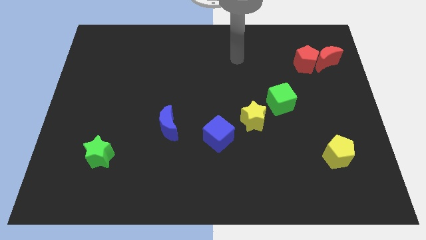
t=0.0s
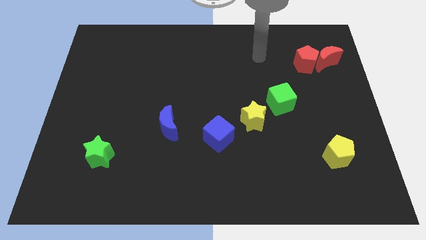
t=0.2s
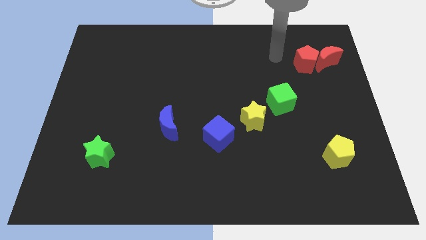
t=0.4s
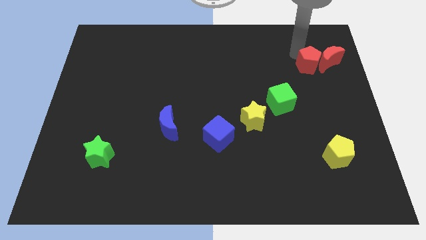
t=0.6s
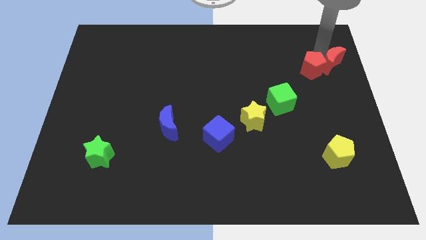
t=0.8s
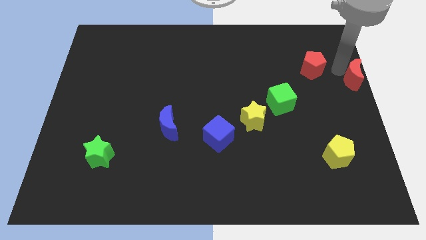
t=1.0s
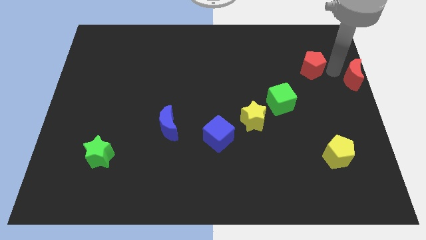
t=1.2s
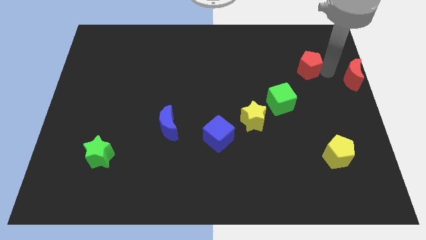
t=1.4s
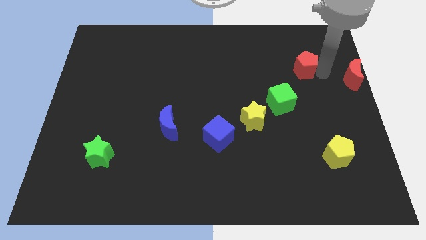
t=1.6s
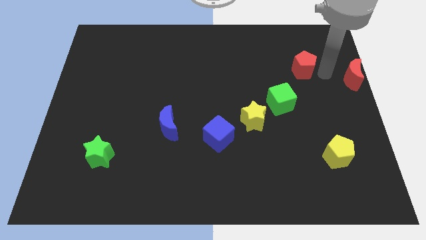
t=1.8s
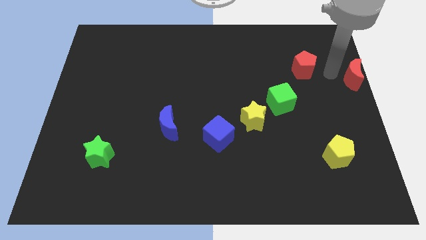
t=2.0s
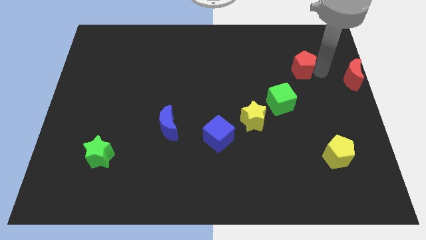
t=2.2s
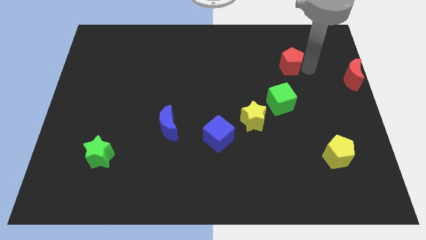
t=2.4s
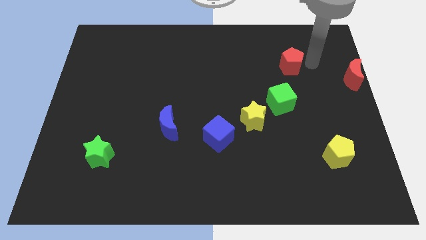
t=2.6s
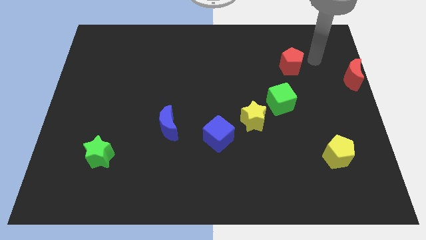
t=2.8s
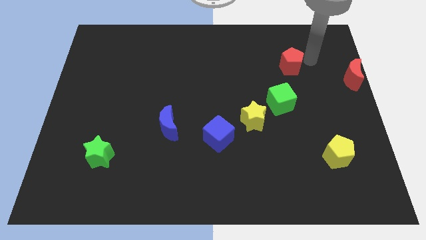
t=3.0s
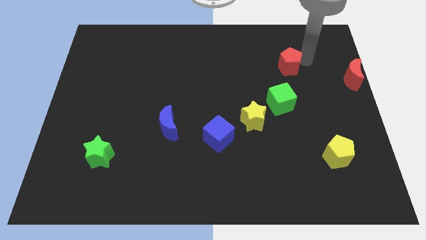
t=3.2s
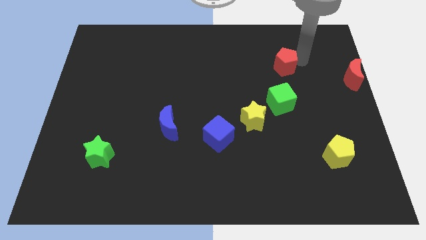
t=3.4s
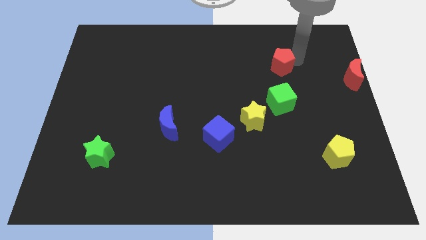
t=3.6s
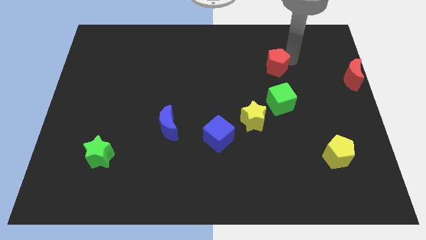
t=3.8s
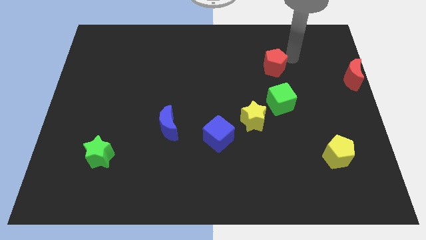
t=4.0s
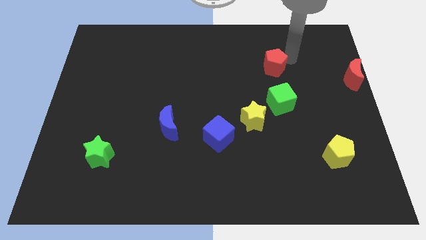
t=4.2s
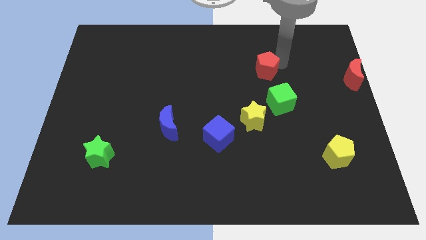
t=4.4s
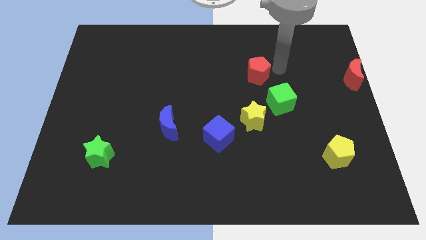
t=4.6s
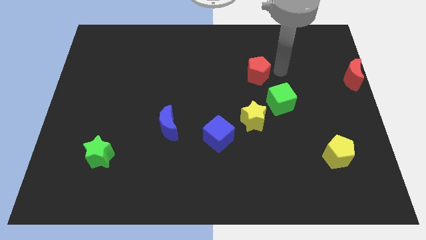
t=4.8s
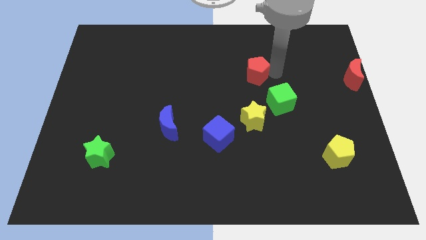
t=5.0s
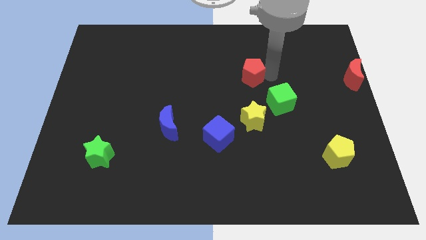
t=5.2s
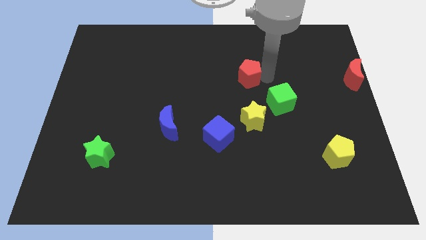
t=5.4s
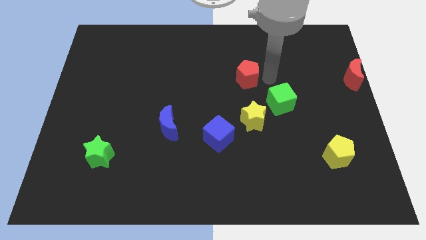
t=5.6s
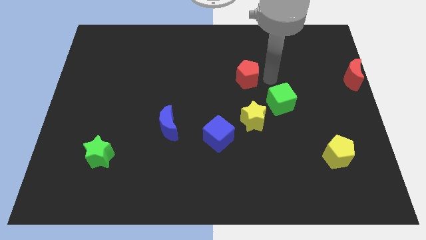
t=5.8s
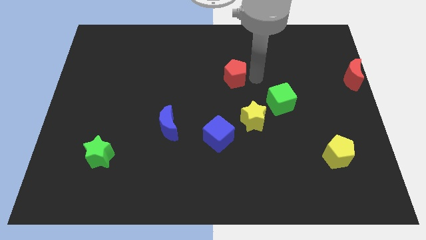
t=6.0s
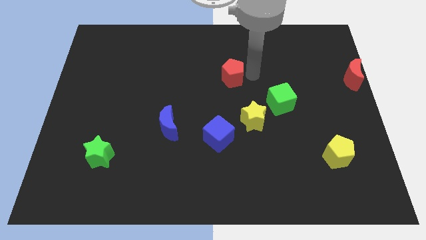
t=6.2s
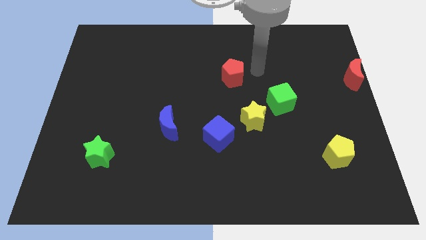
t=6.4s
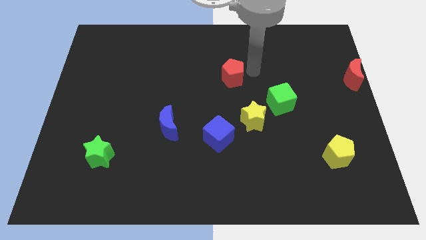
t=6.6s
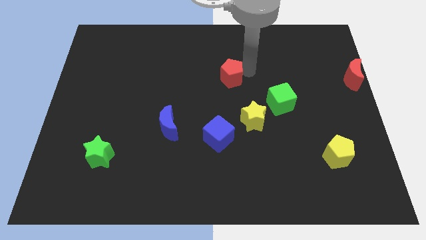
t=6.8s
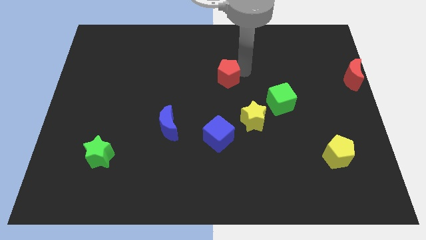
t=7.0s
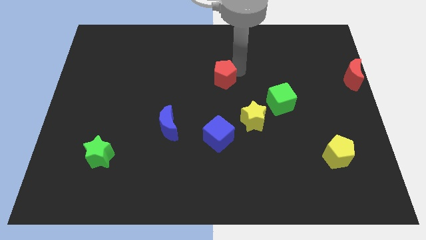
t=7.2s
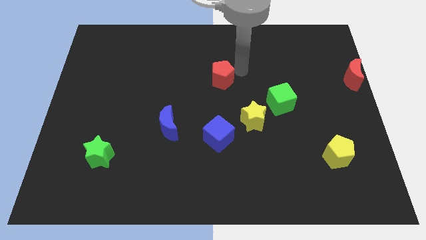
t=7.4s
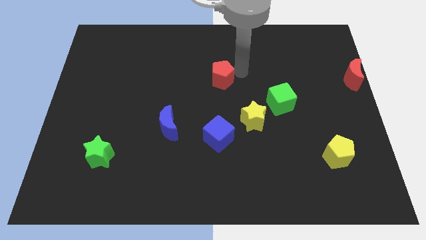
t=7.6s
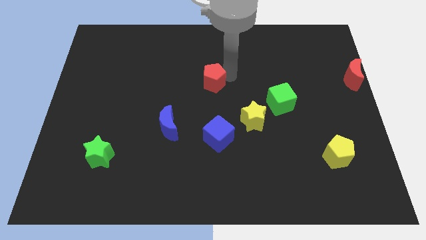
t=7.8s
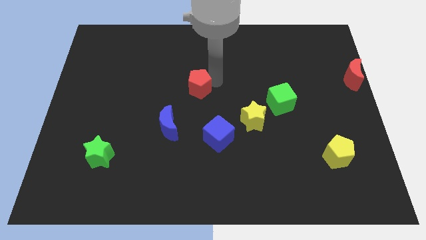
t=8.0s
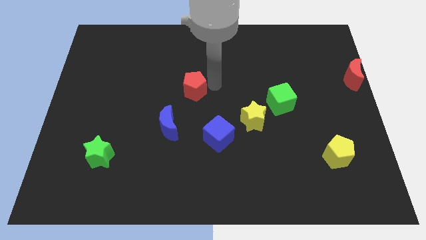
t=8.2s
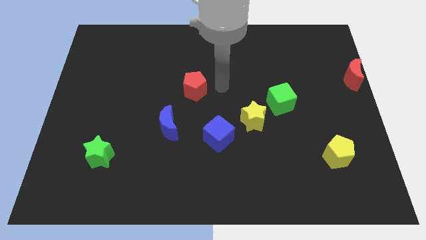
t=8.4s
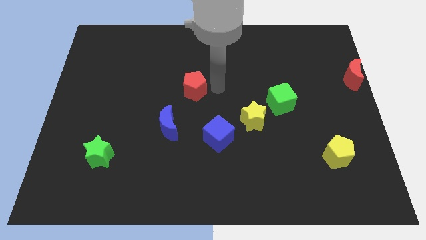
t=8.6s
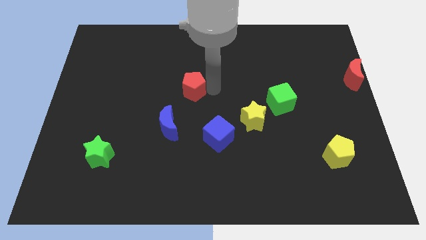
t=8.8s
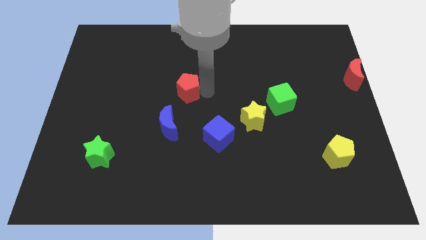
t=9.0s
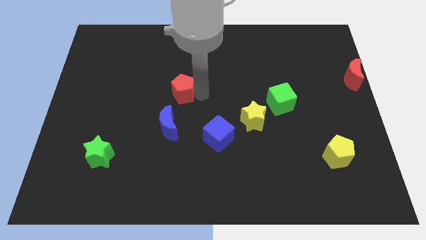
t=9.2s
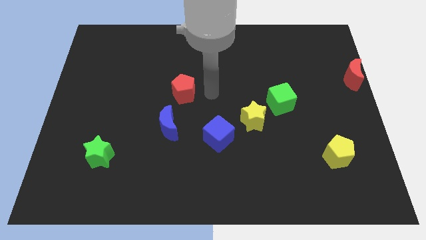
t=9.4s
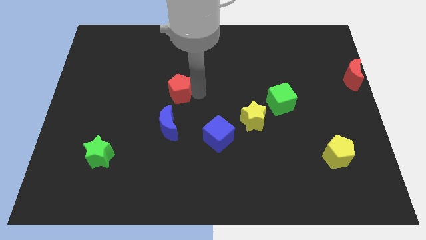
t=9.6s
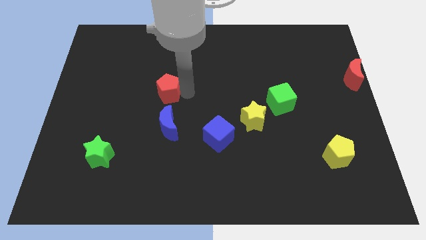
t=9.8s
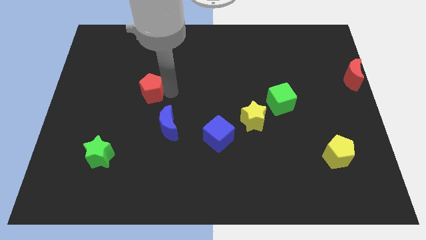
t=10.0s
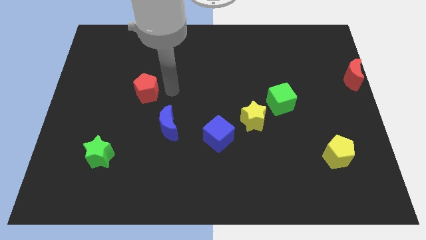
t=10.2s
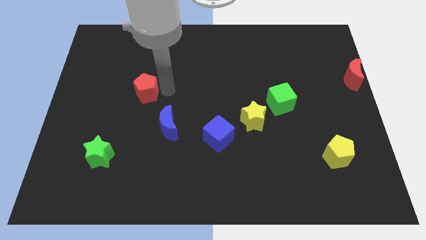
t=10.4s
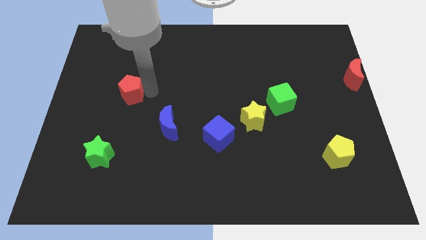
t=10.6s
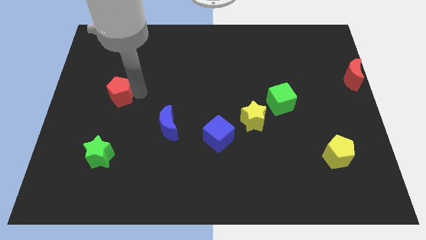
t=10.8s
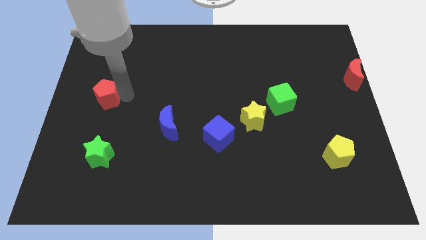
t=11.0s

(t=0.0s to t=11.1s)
move the red pentagon to the center left
